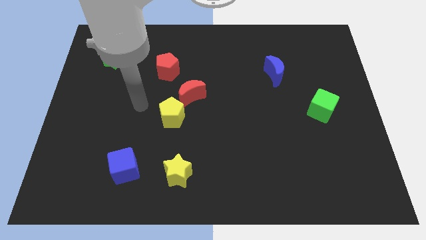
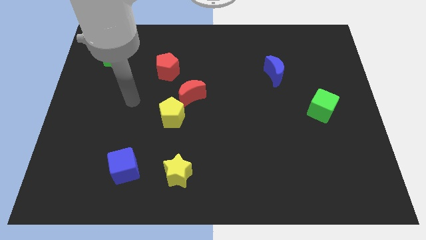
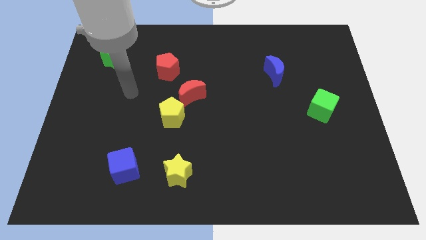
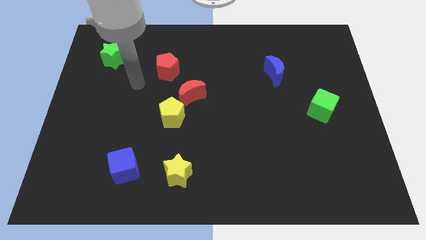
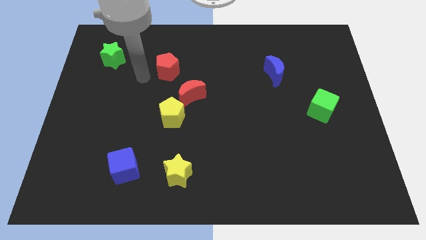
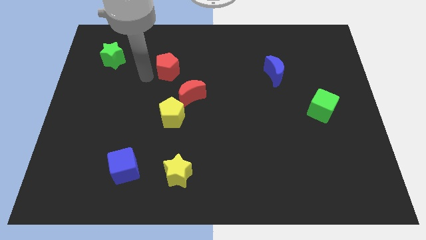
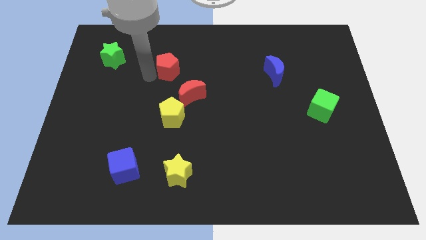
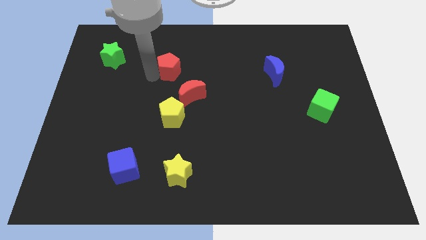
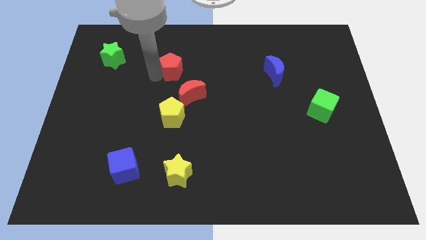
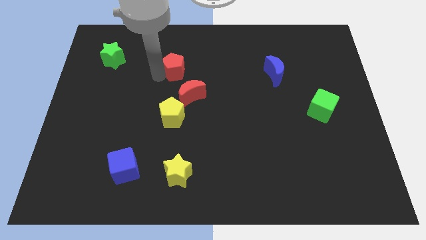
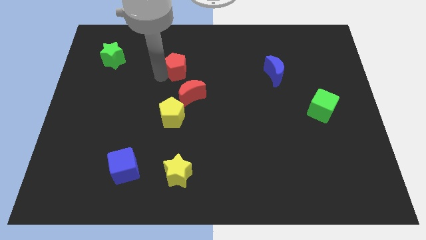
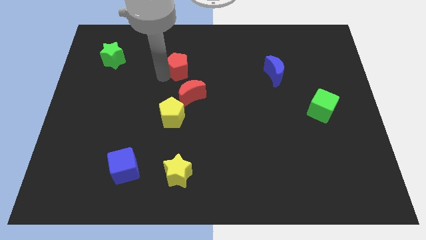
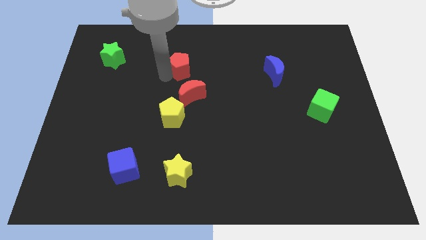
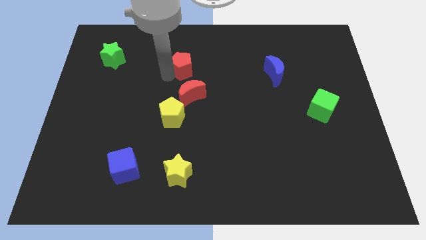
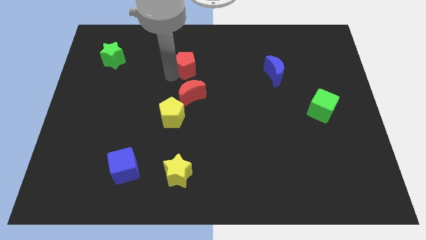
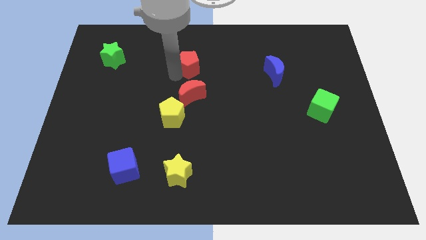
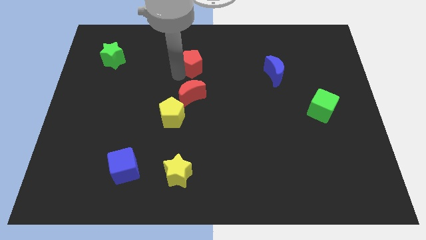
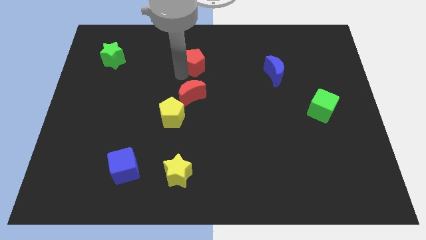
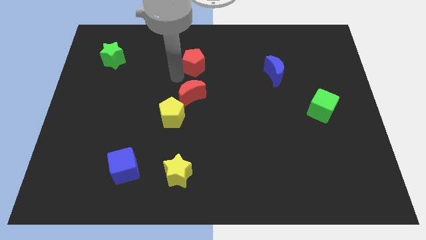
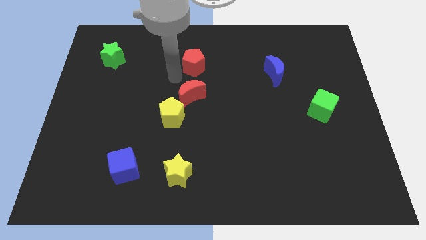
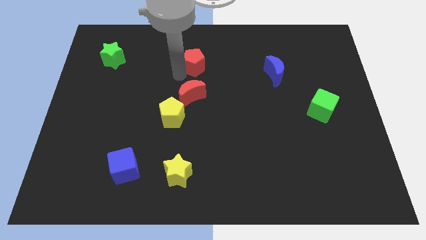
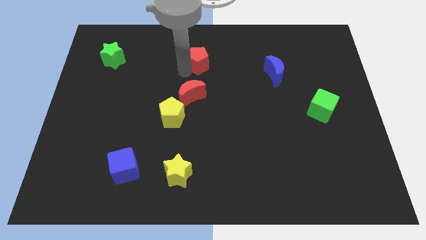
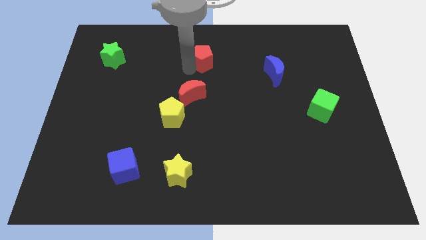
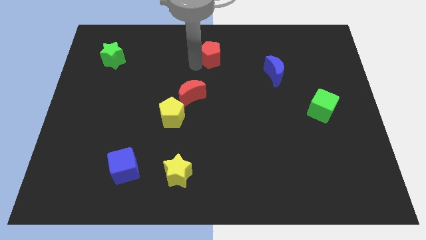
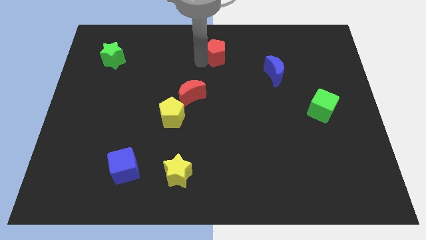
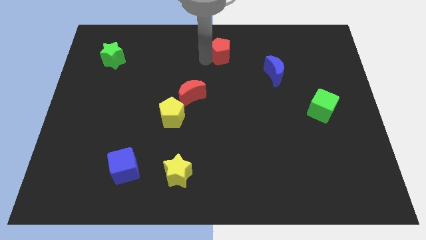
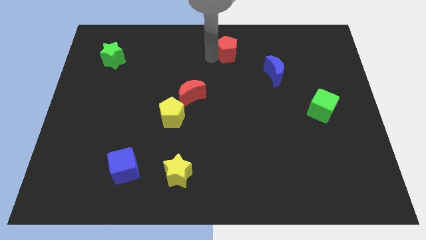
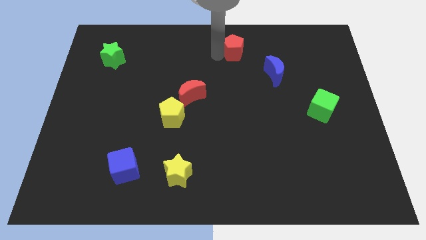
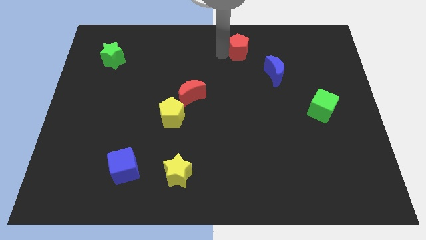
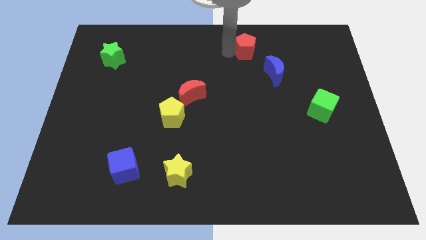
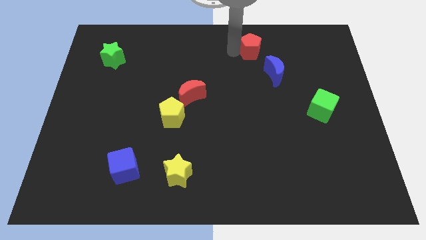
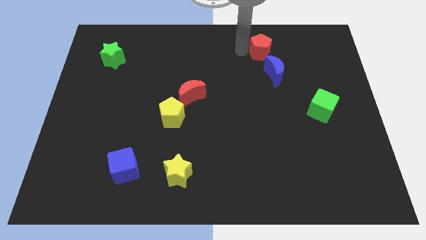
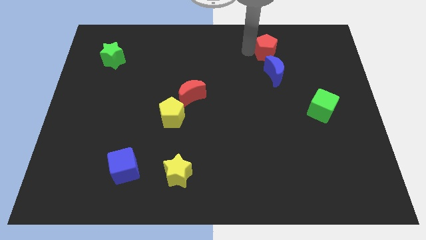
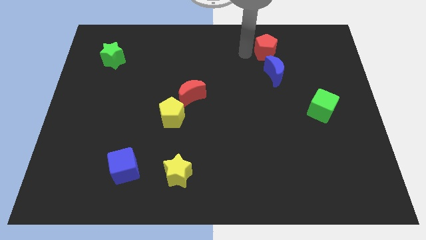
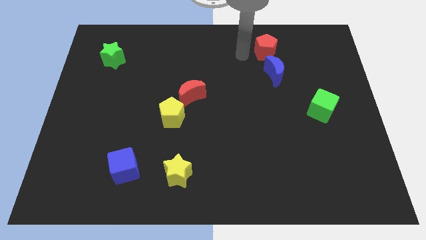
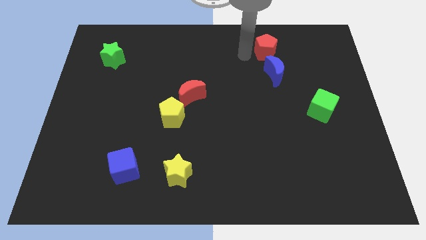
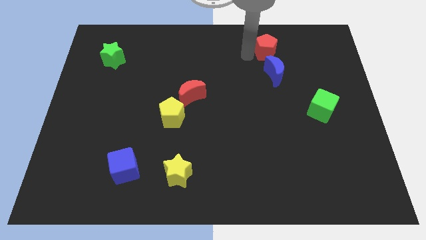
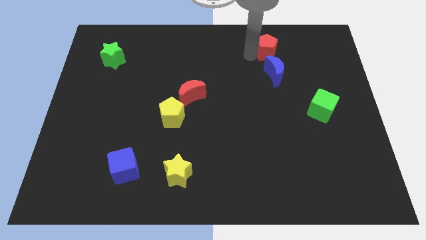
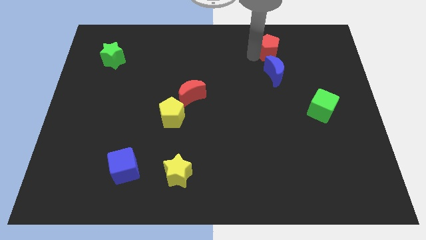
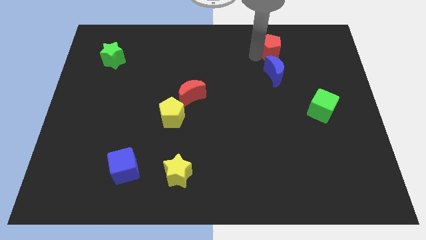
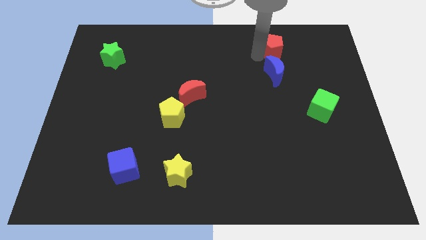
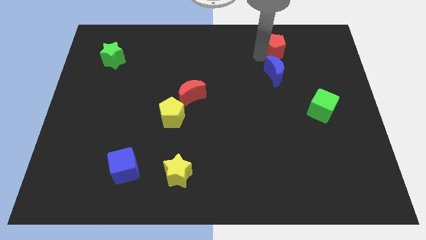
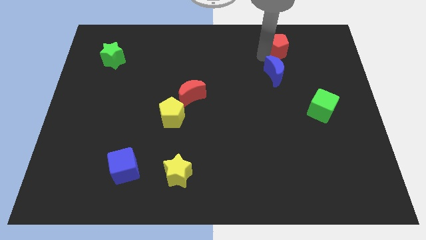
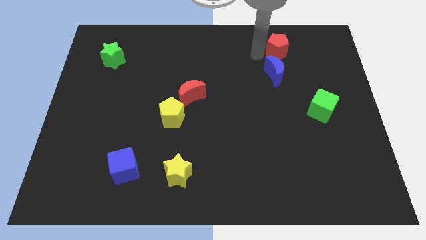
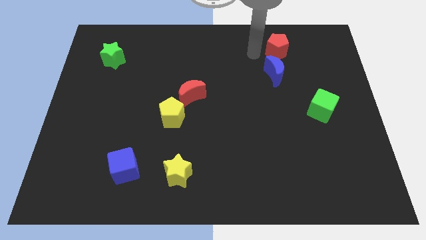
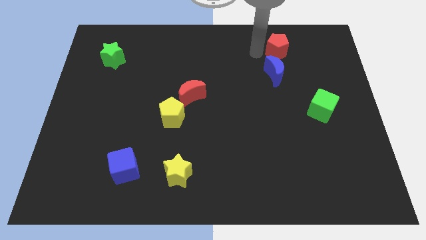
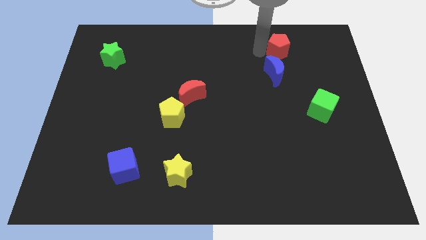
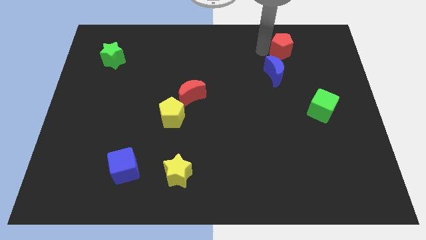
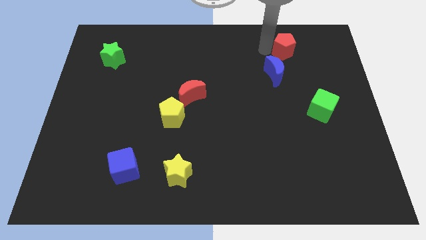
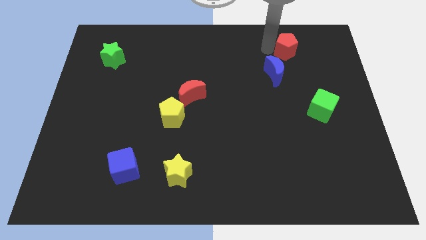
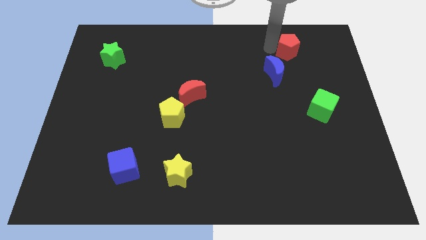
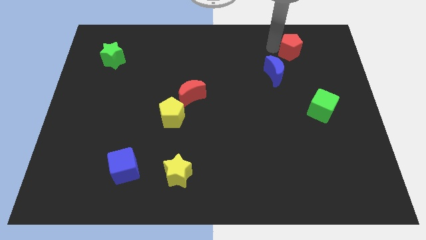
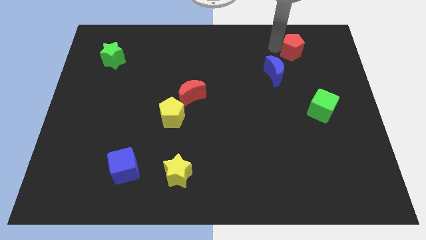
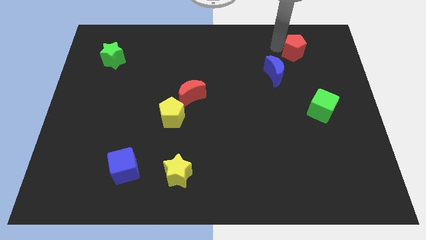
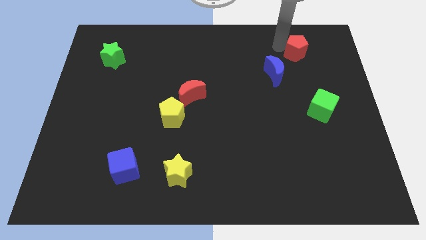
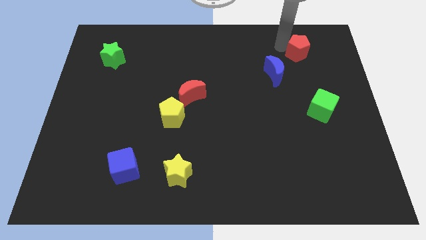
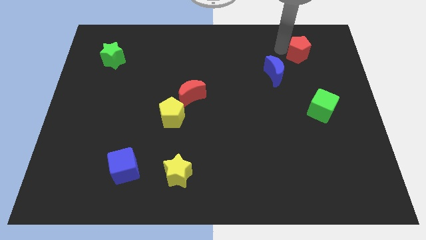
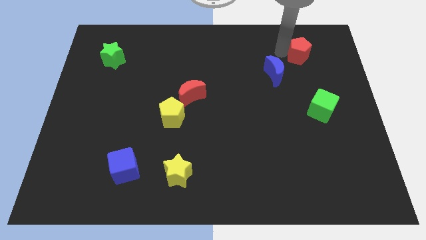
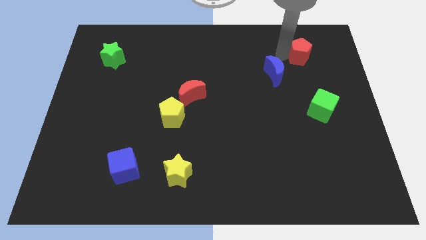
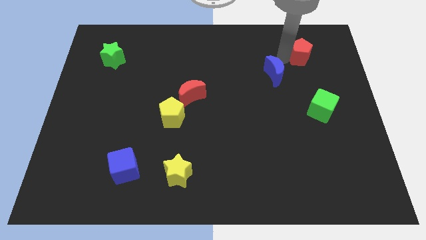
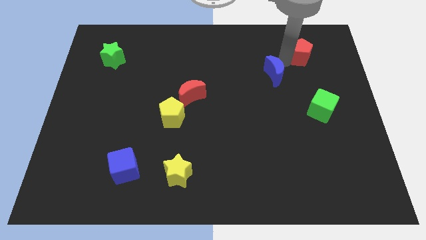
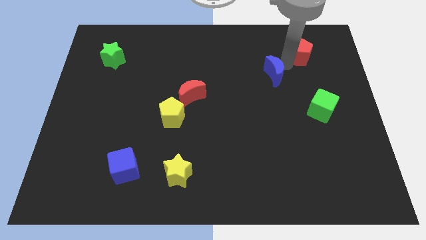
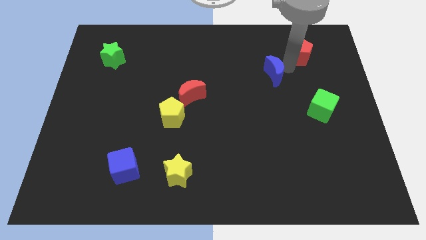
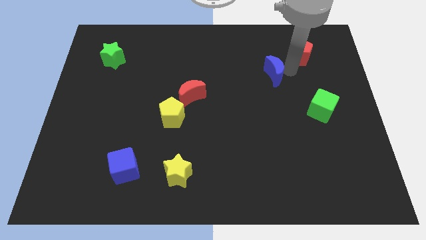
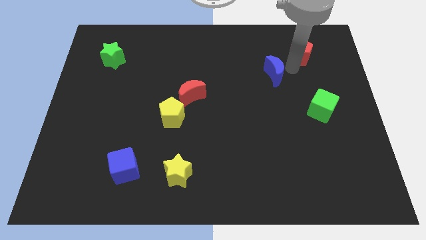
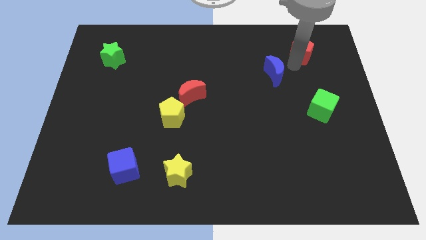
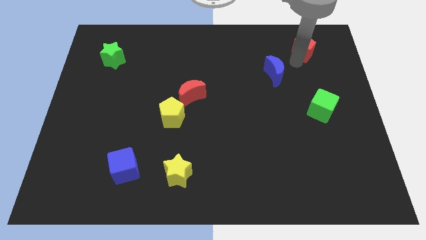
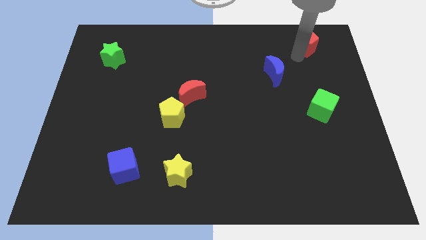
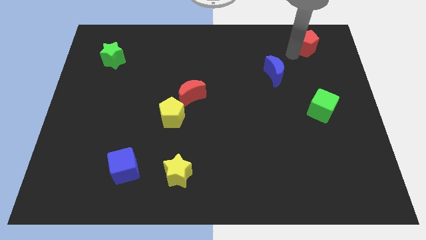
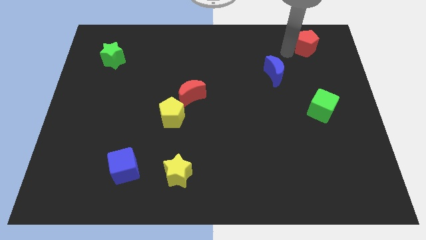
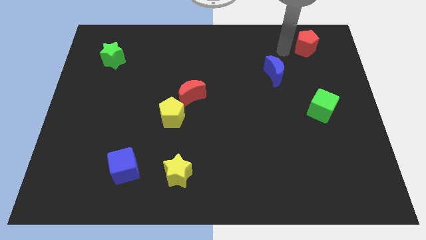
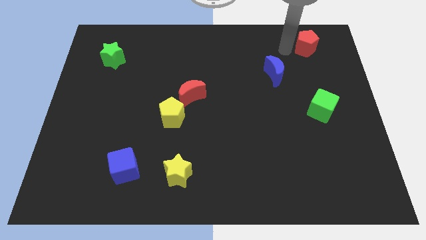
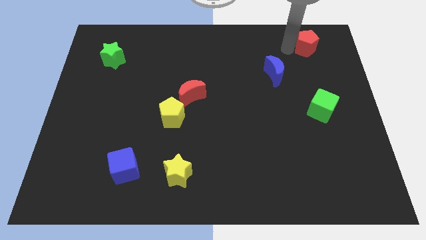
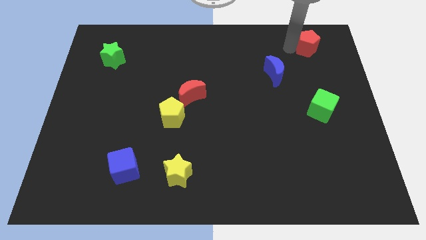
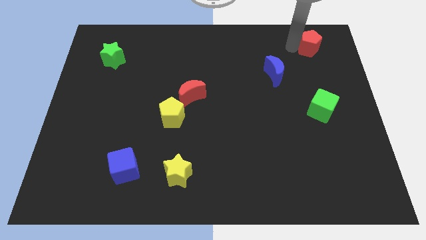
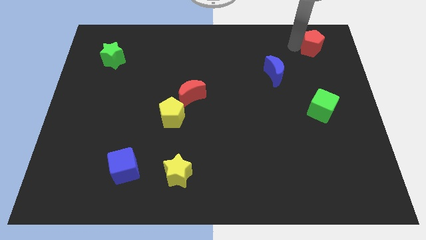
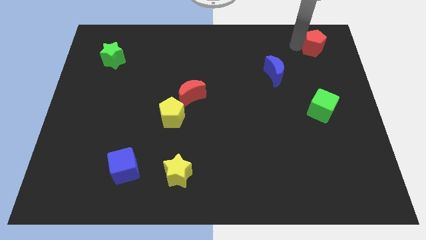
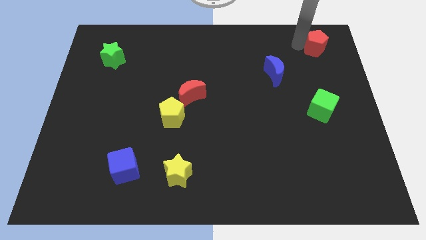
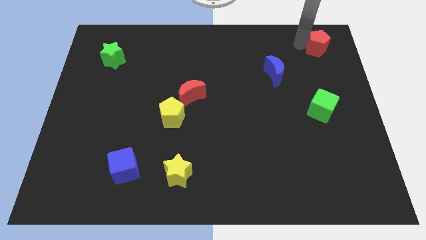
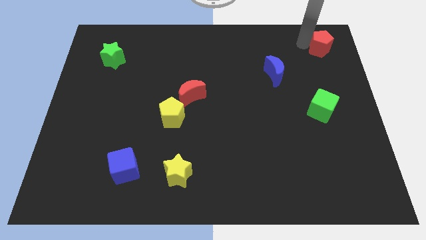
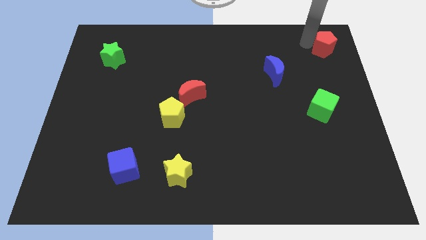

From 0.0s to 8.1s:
push the red pentagon to the top right of the board

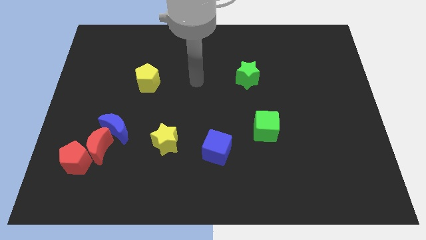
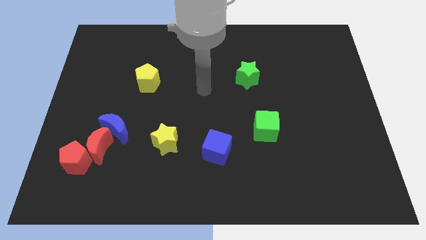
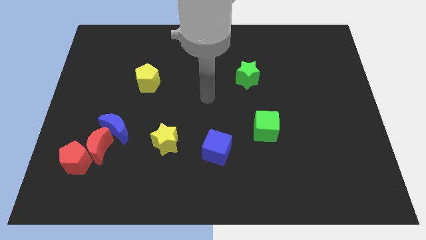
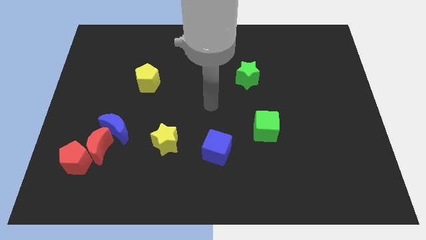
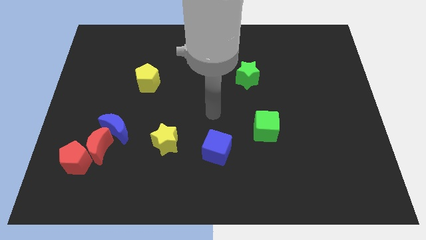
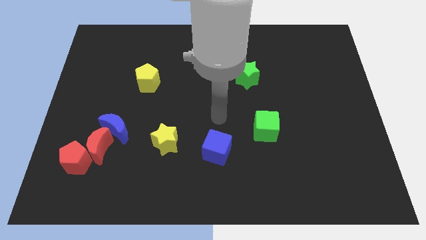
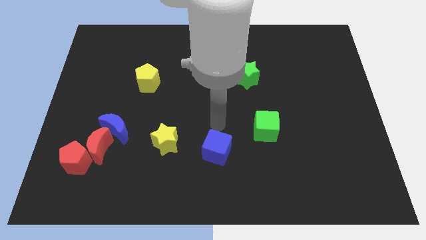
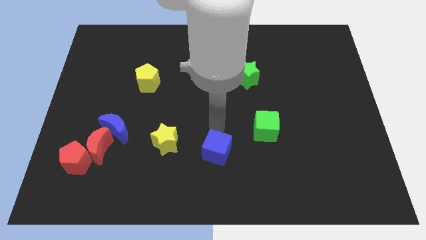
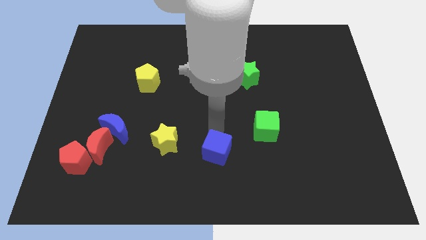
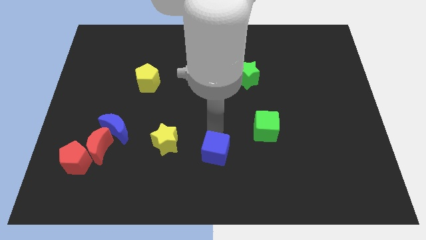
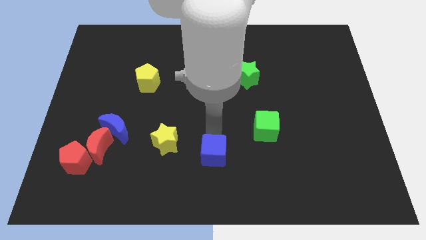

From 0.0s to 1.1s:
put the blue cube to the bottom
